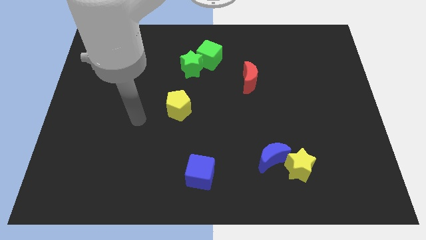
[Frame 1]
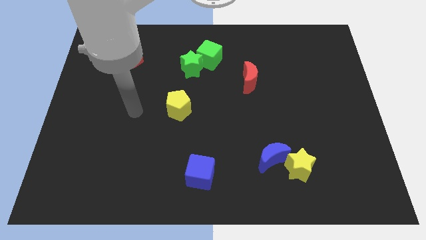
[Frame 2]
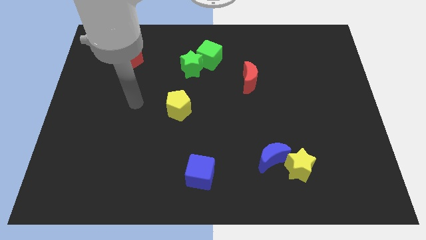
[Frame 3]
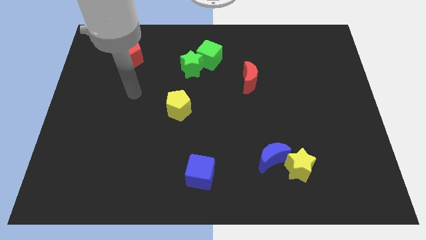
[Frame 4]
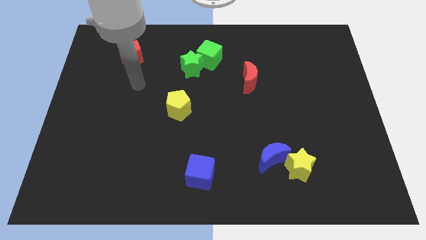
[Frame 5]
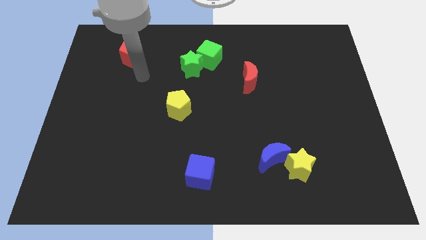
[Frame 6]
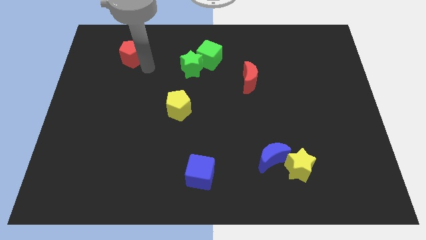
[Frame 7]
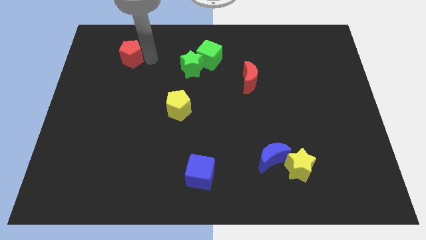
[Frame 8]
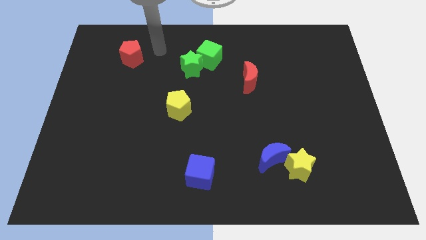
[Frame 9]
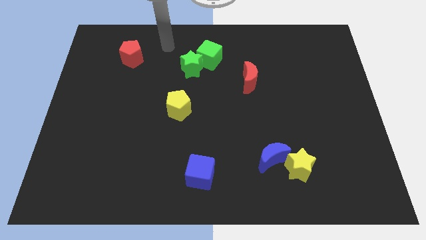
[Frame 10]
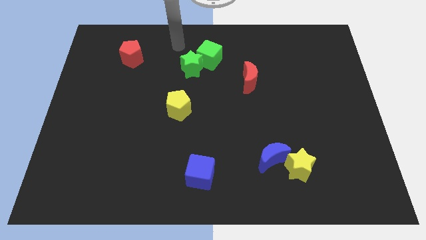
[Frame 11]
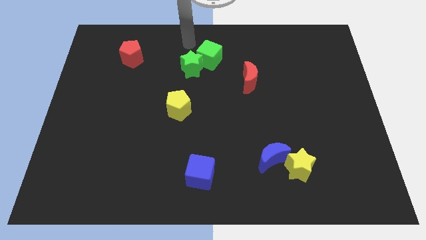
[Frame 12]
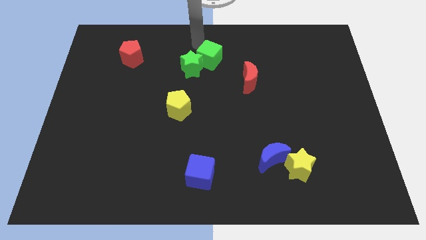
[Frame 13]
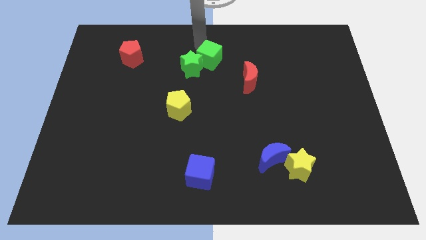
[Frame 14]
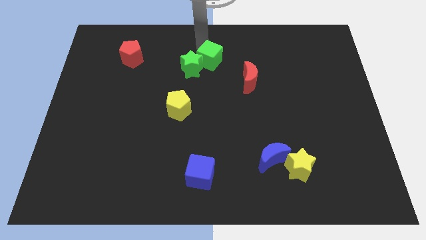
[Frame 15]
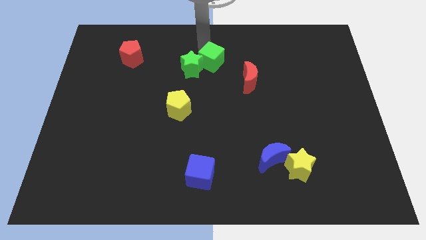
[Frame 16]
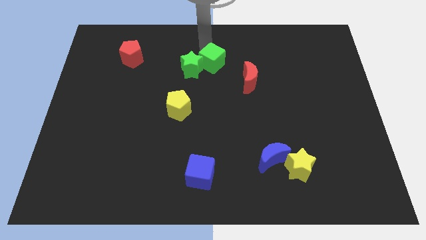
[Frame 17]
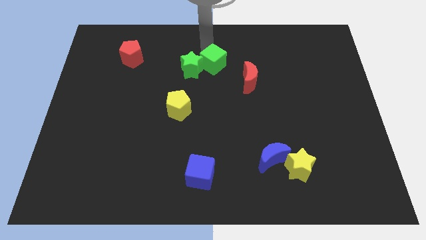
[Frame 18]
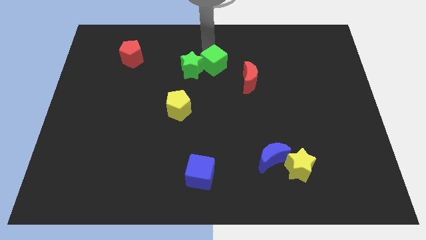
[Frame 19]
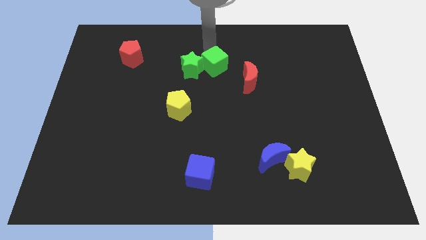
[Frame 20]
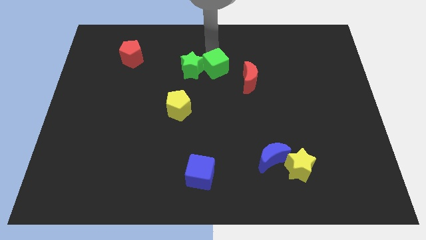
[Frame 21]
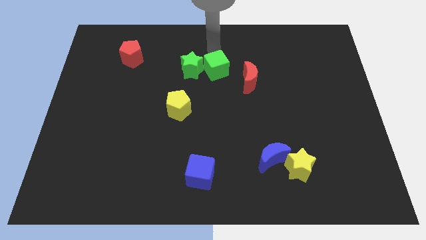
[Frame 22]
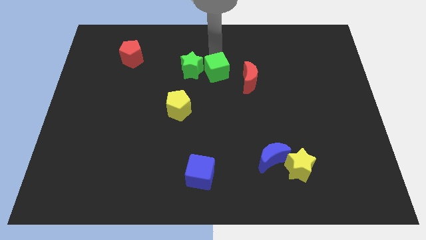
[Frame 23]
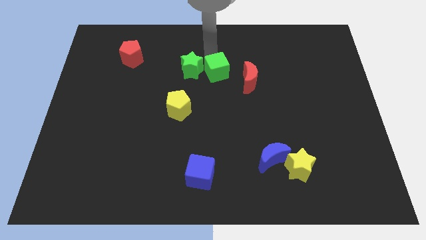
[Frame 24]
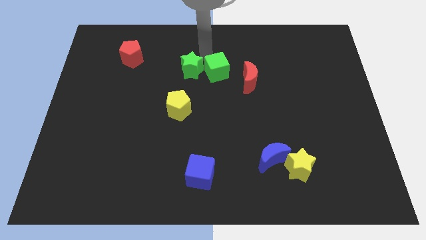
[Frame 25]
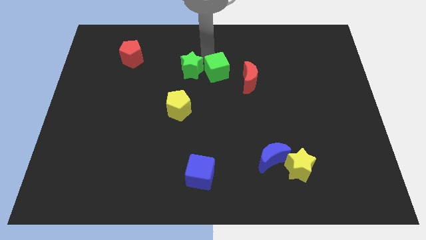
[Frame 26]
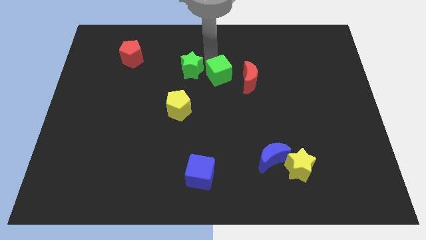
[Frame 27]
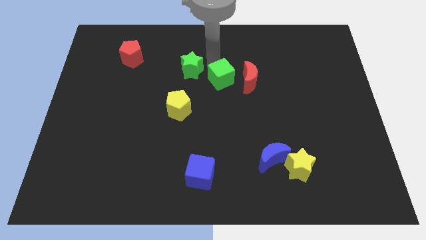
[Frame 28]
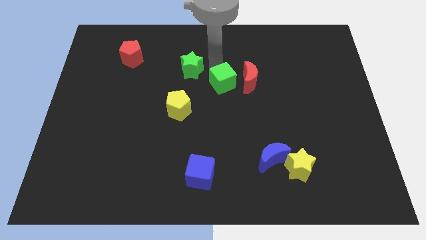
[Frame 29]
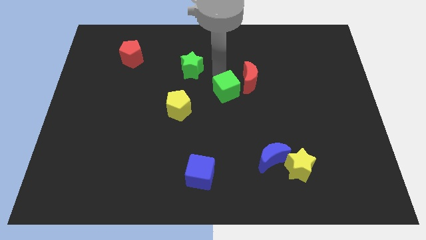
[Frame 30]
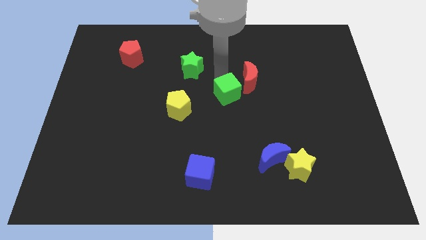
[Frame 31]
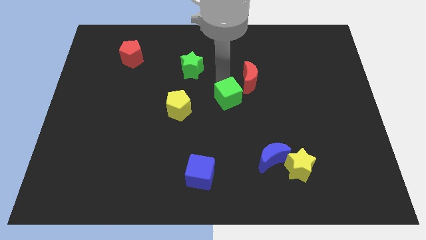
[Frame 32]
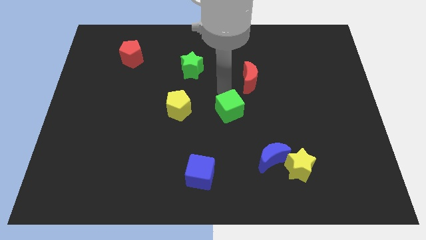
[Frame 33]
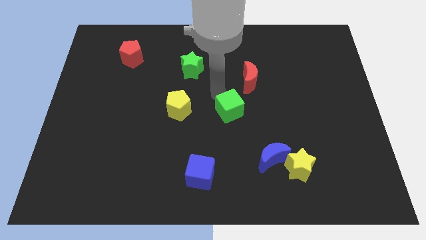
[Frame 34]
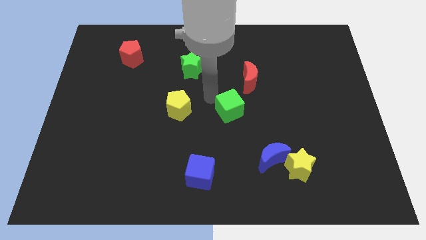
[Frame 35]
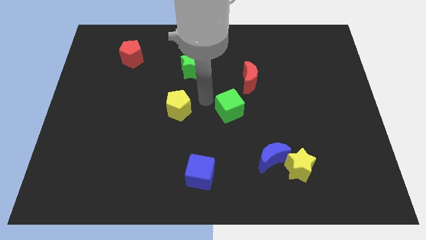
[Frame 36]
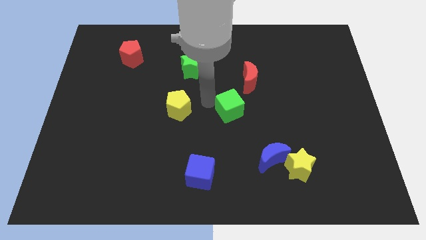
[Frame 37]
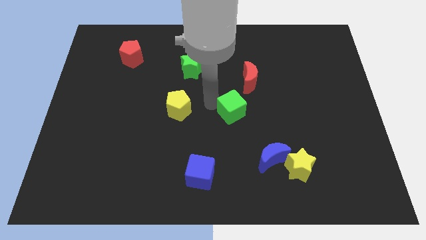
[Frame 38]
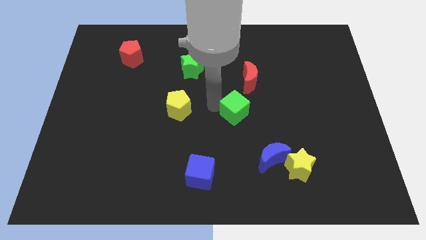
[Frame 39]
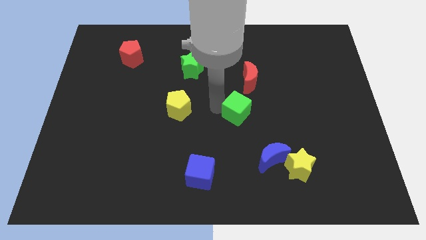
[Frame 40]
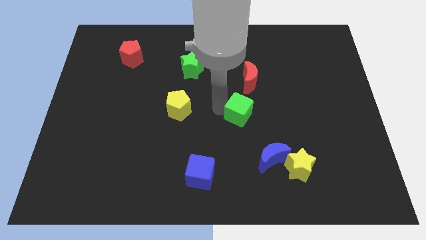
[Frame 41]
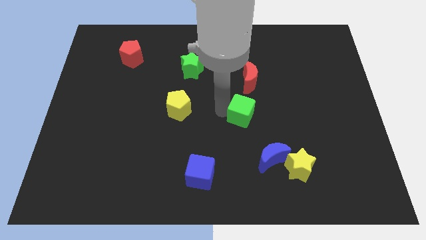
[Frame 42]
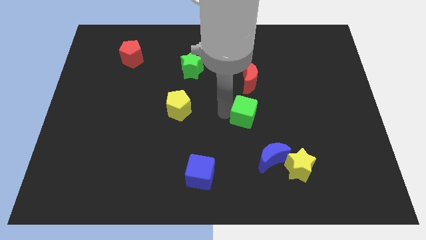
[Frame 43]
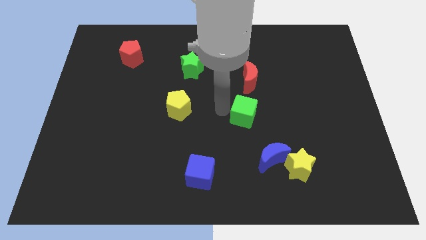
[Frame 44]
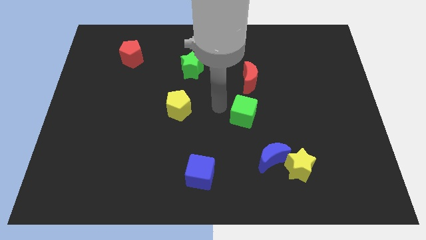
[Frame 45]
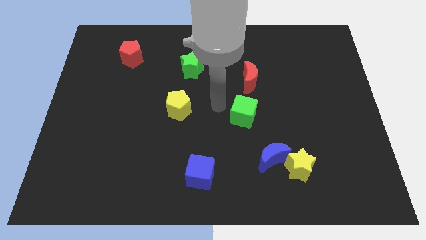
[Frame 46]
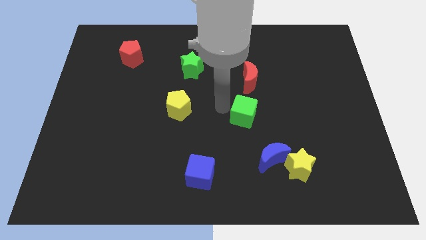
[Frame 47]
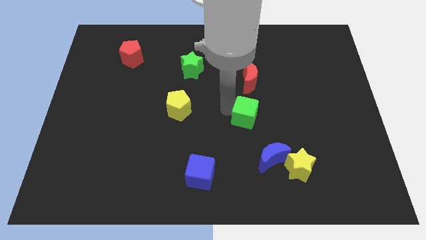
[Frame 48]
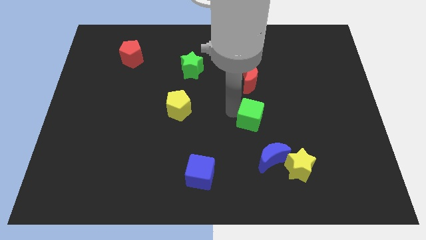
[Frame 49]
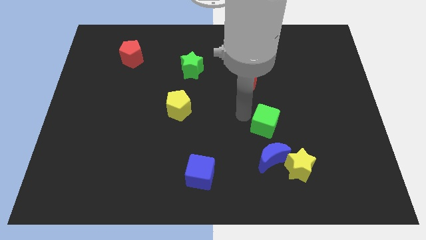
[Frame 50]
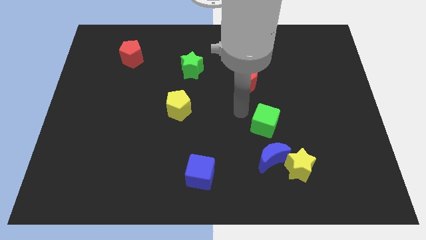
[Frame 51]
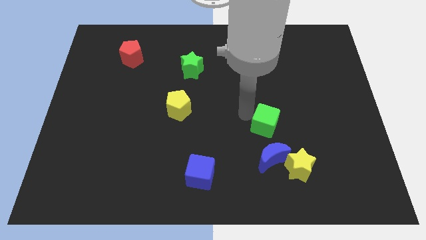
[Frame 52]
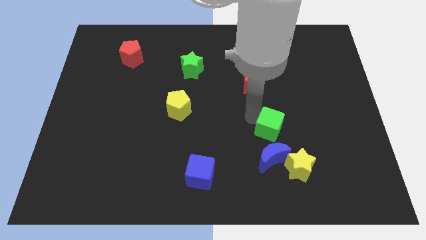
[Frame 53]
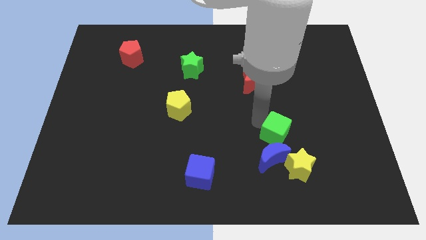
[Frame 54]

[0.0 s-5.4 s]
move the green cube to the top right side of the blue moon

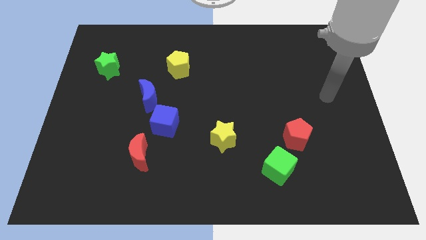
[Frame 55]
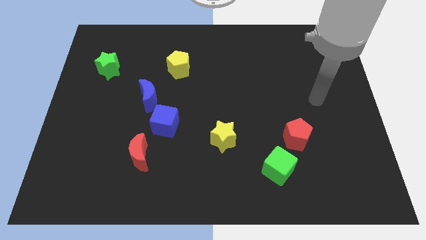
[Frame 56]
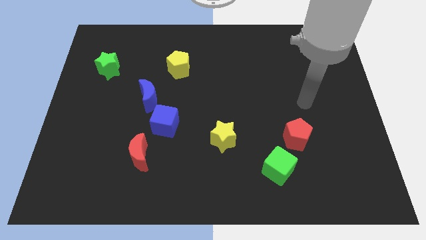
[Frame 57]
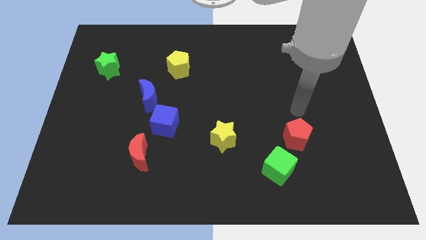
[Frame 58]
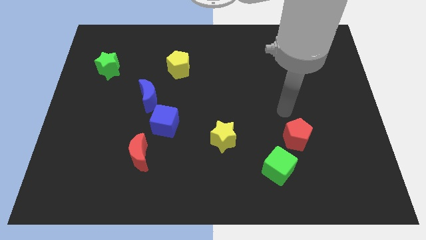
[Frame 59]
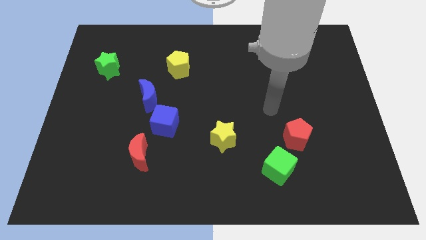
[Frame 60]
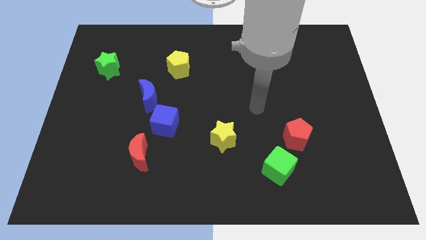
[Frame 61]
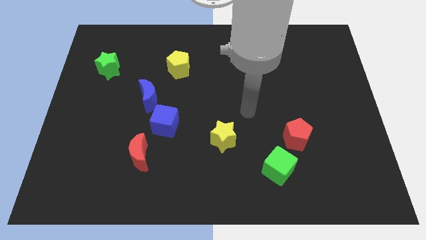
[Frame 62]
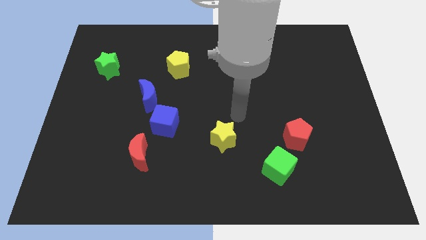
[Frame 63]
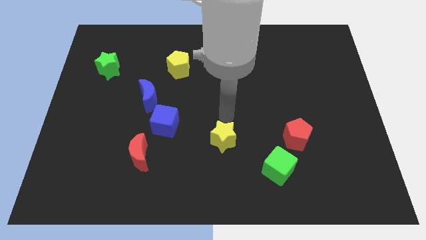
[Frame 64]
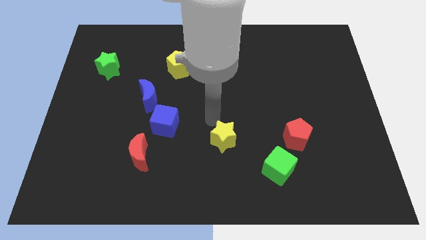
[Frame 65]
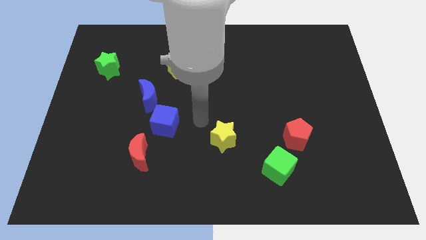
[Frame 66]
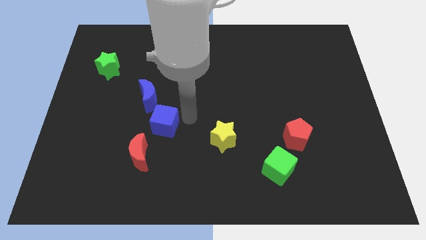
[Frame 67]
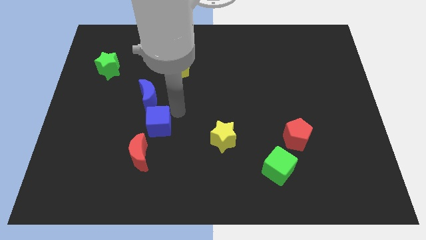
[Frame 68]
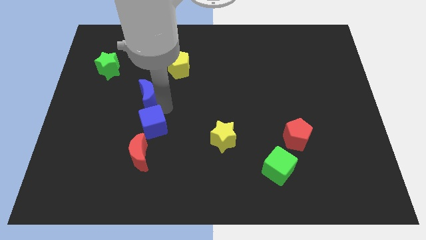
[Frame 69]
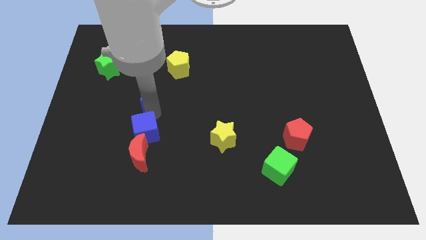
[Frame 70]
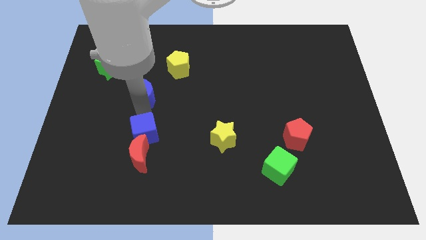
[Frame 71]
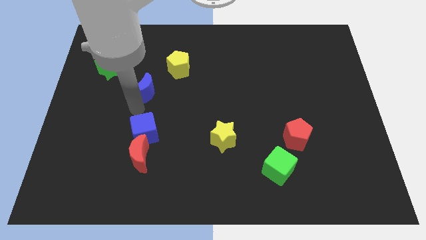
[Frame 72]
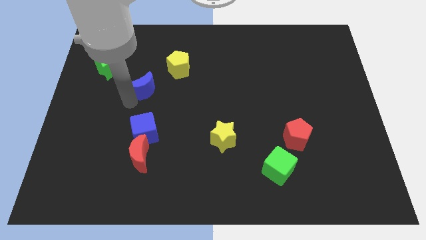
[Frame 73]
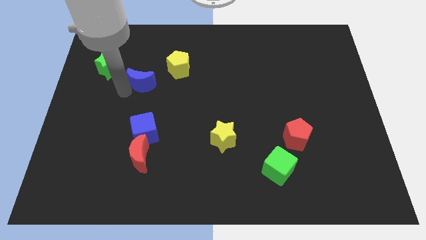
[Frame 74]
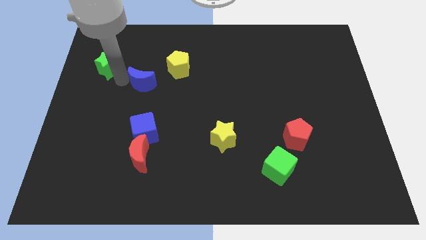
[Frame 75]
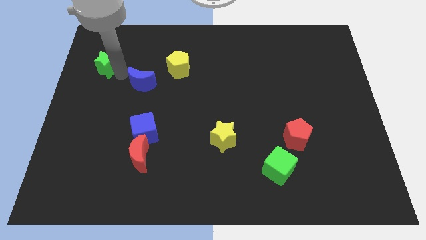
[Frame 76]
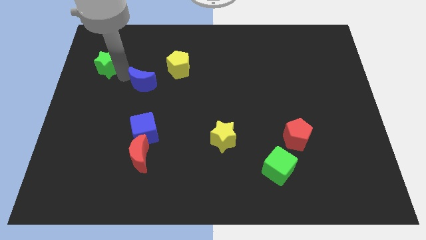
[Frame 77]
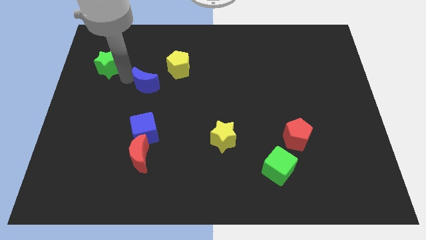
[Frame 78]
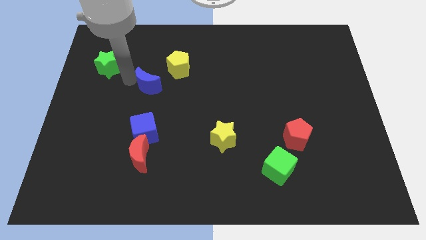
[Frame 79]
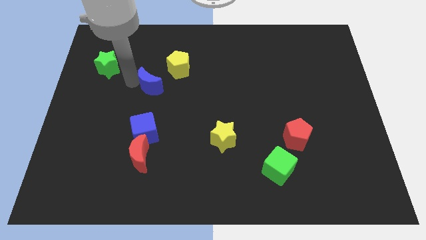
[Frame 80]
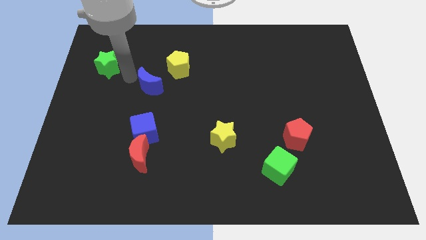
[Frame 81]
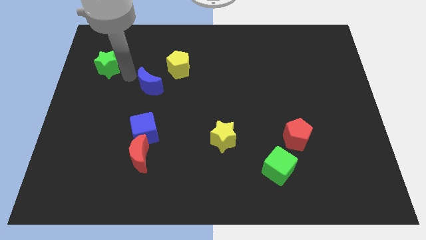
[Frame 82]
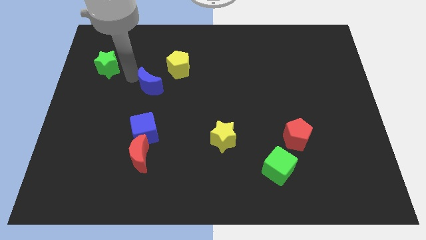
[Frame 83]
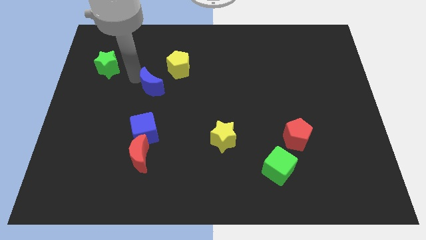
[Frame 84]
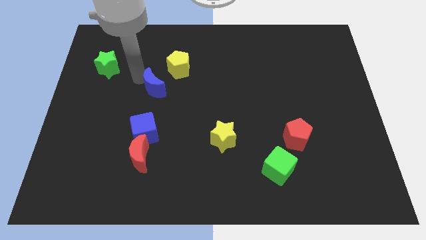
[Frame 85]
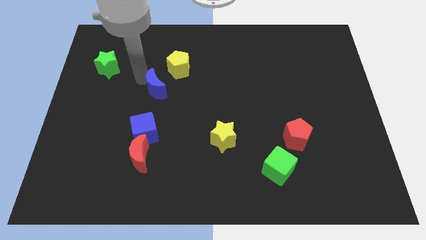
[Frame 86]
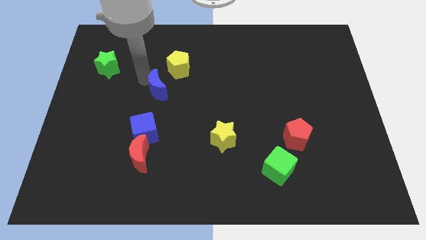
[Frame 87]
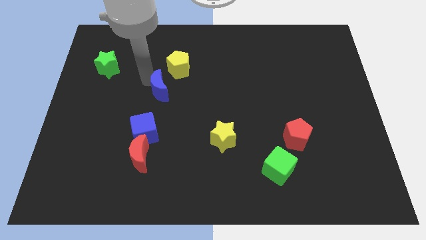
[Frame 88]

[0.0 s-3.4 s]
move the blue moon below the yellow pentagon
